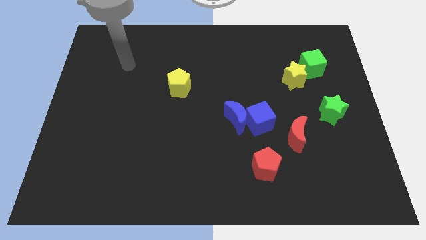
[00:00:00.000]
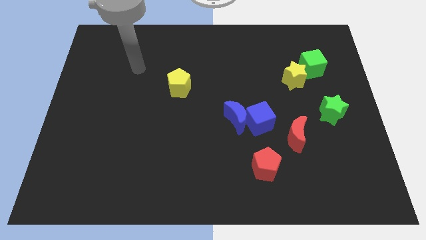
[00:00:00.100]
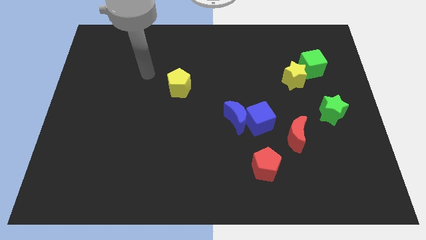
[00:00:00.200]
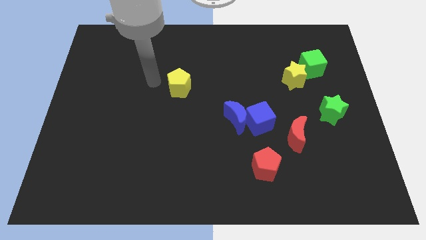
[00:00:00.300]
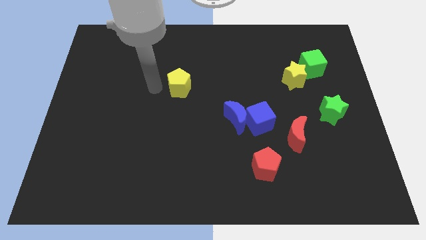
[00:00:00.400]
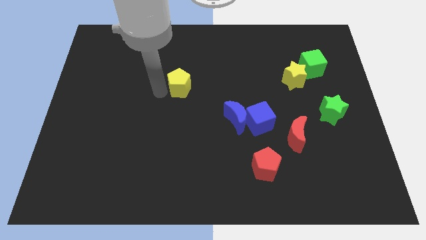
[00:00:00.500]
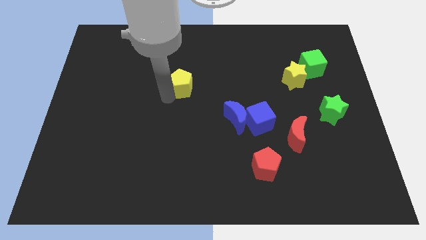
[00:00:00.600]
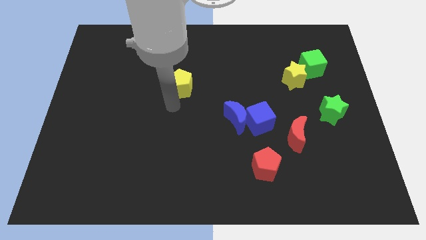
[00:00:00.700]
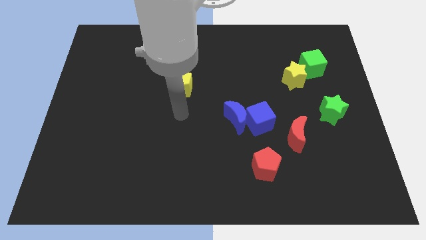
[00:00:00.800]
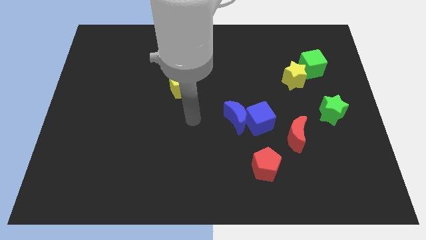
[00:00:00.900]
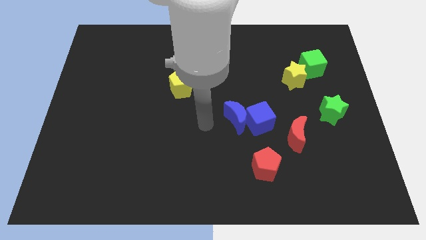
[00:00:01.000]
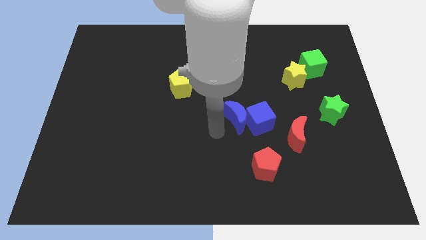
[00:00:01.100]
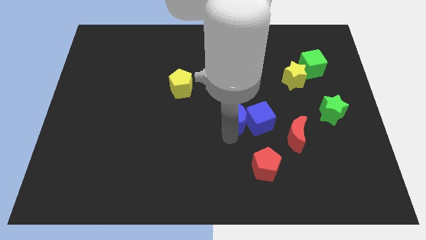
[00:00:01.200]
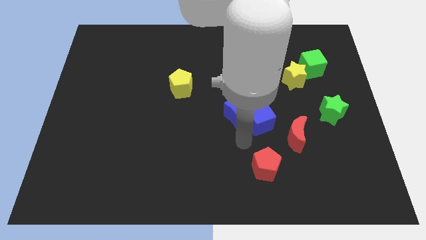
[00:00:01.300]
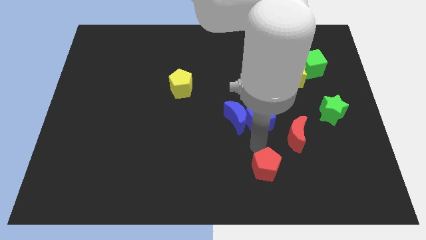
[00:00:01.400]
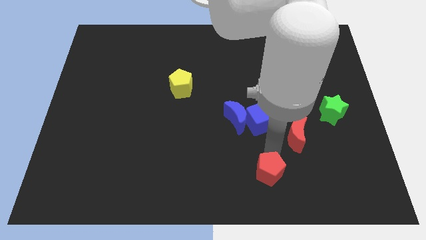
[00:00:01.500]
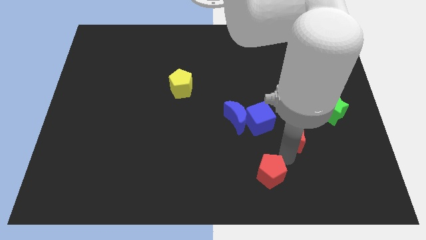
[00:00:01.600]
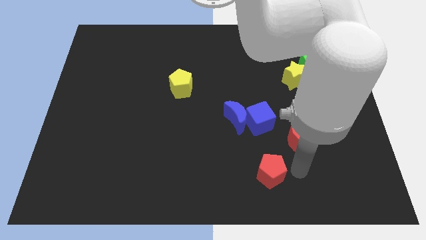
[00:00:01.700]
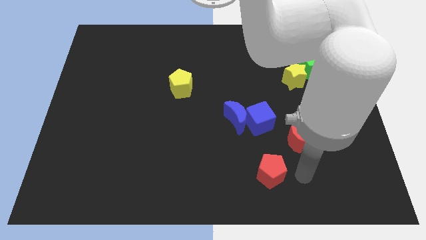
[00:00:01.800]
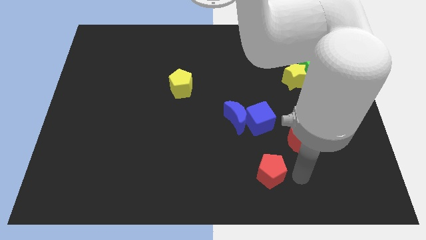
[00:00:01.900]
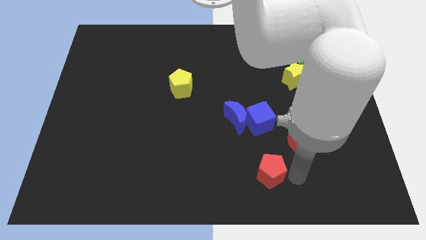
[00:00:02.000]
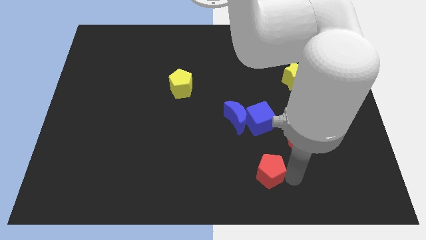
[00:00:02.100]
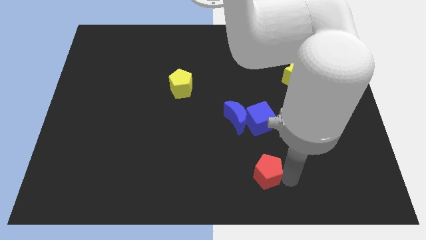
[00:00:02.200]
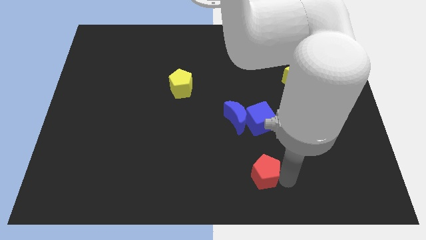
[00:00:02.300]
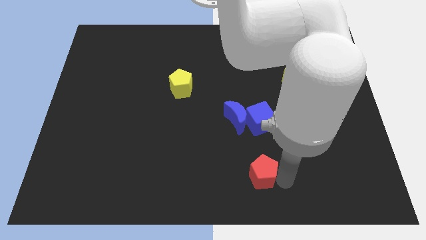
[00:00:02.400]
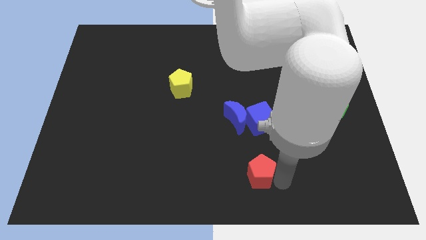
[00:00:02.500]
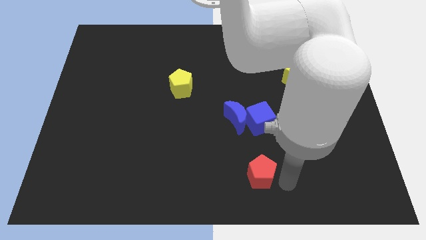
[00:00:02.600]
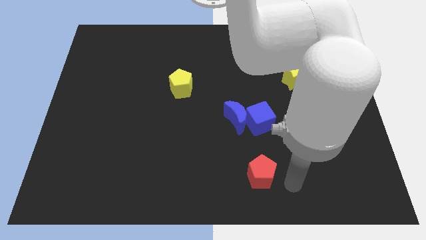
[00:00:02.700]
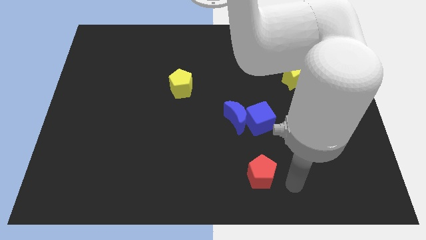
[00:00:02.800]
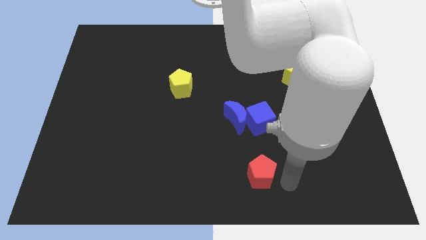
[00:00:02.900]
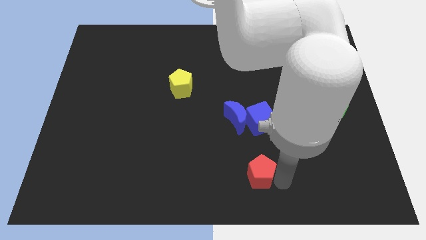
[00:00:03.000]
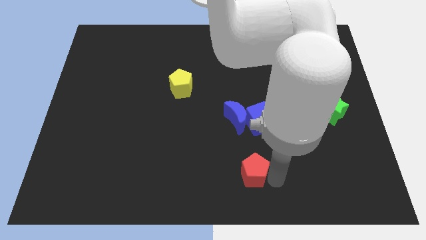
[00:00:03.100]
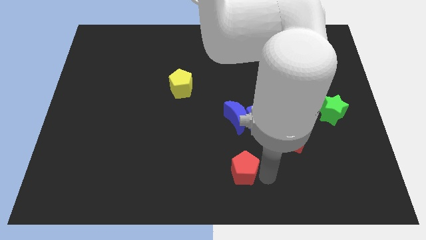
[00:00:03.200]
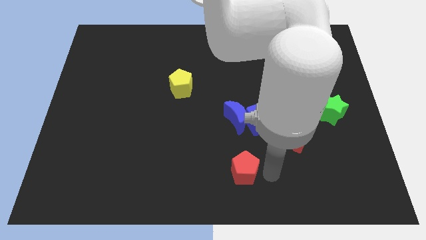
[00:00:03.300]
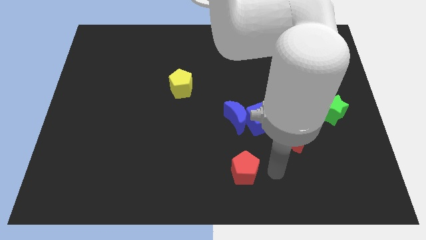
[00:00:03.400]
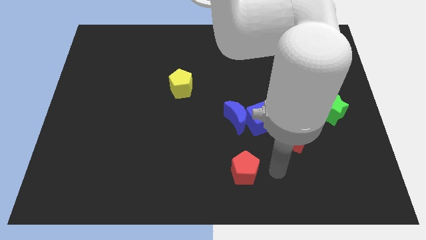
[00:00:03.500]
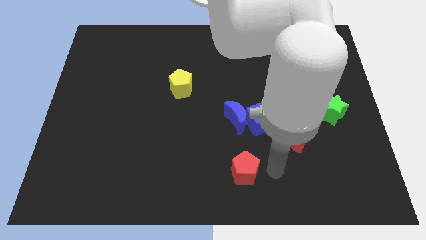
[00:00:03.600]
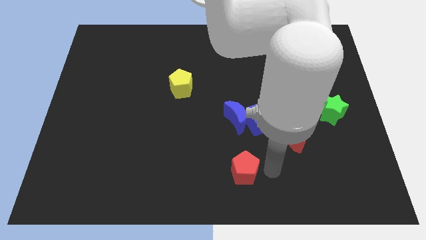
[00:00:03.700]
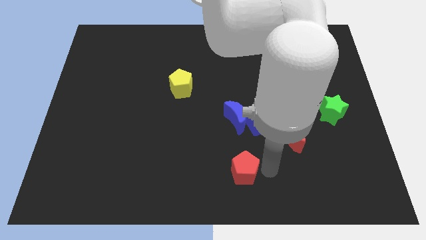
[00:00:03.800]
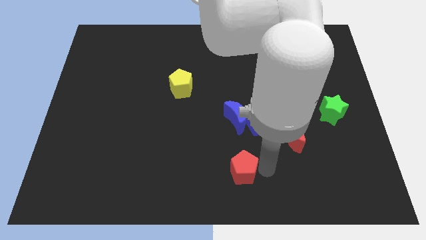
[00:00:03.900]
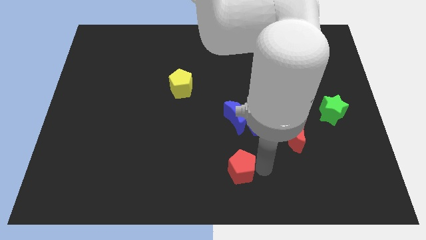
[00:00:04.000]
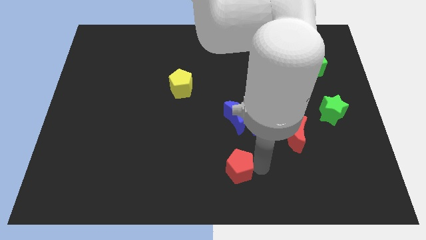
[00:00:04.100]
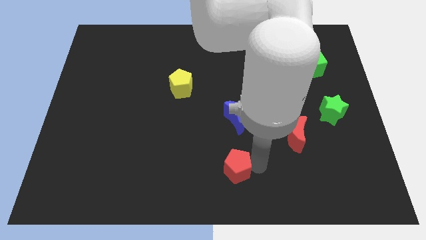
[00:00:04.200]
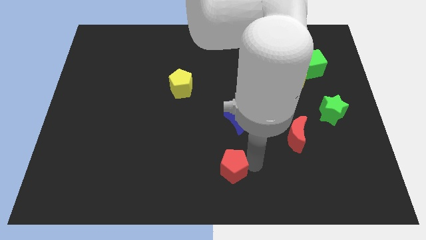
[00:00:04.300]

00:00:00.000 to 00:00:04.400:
move the red pentagon a bit left

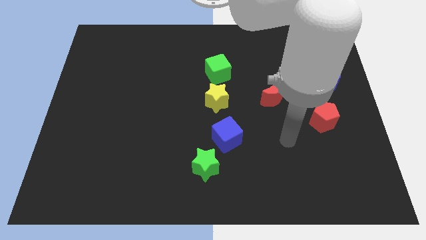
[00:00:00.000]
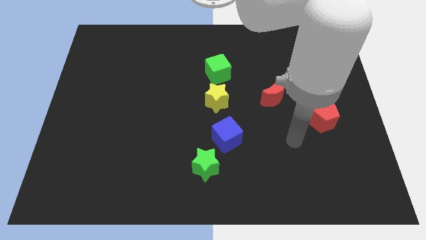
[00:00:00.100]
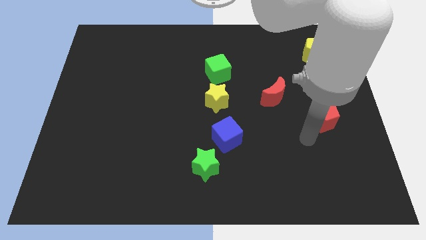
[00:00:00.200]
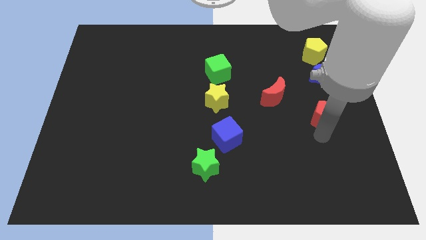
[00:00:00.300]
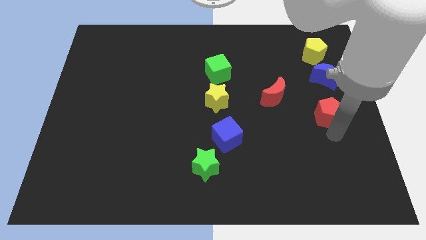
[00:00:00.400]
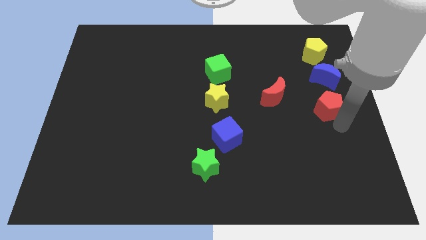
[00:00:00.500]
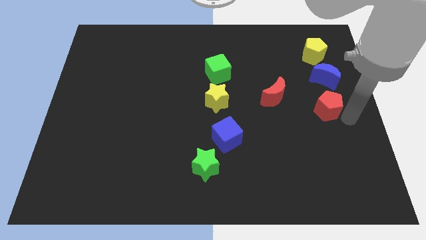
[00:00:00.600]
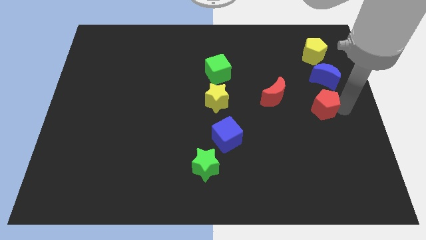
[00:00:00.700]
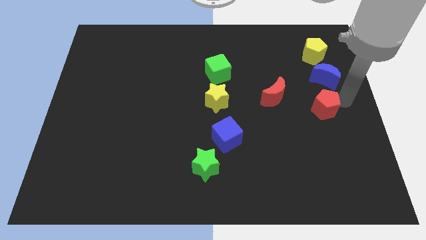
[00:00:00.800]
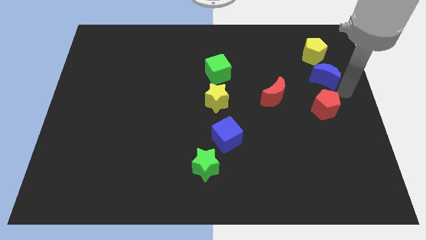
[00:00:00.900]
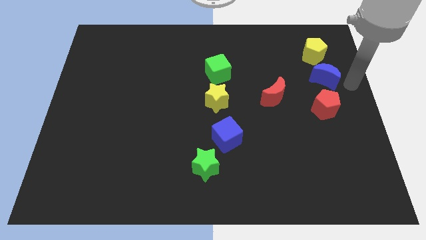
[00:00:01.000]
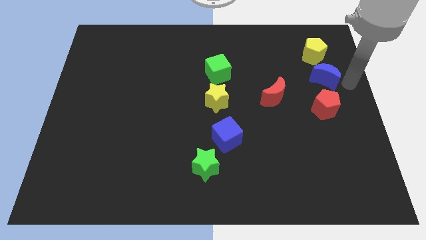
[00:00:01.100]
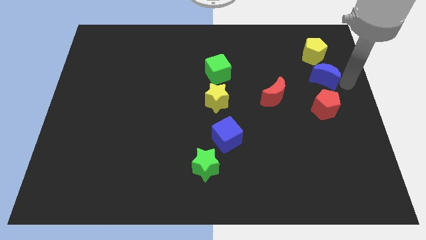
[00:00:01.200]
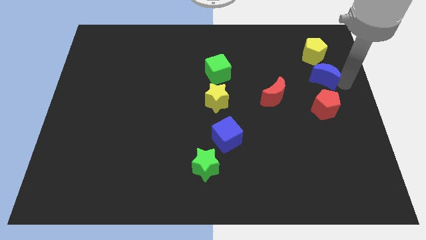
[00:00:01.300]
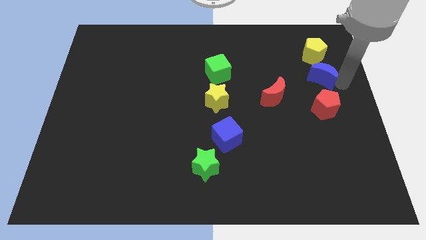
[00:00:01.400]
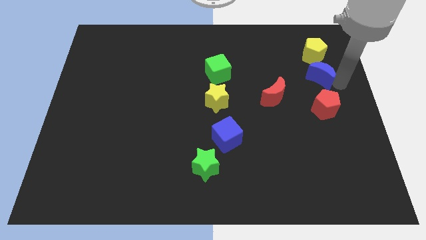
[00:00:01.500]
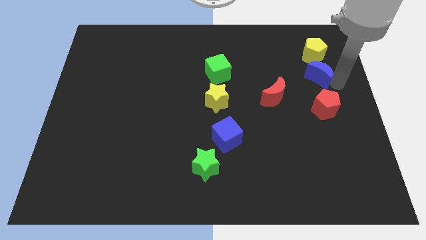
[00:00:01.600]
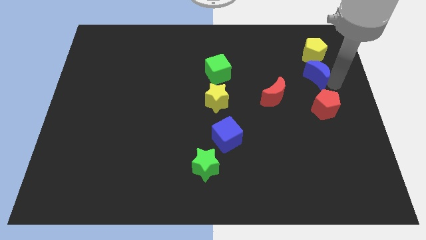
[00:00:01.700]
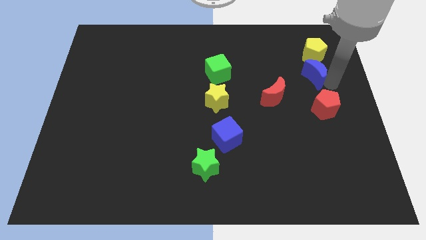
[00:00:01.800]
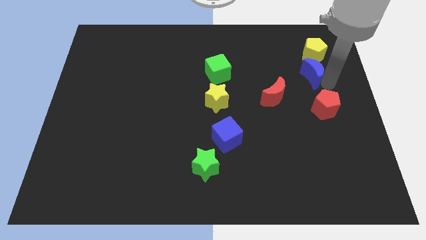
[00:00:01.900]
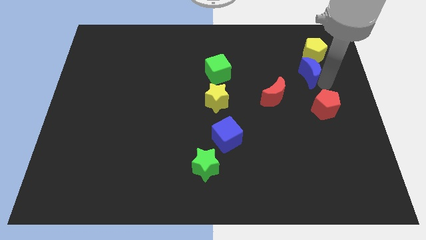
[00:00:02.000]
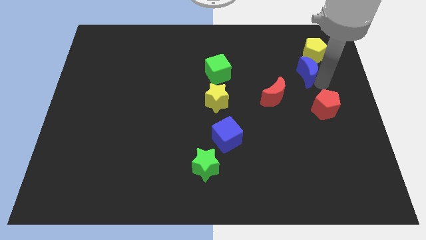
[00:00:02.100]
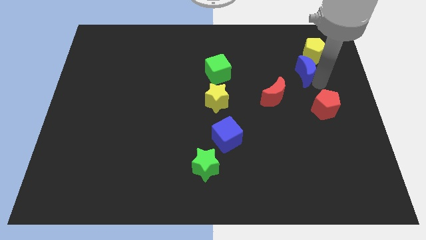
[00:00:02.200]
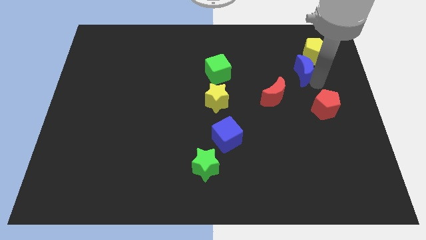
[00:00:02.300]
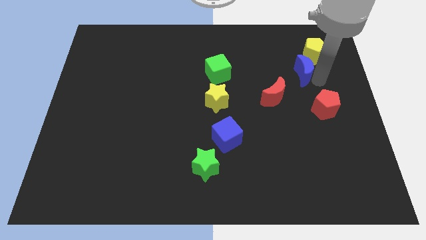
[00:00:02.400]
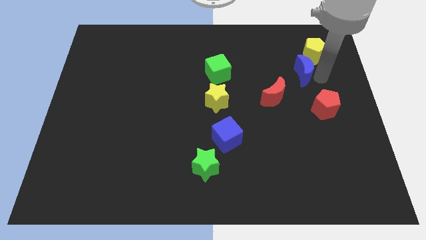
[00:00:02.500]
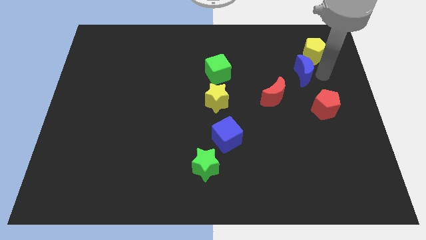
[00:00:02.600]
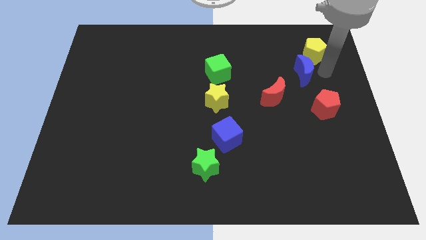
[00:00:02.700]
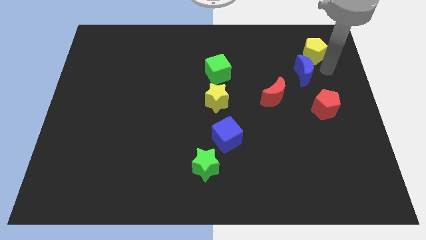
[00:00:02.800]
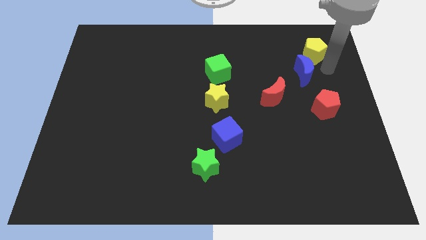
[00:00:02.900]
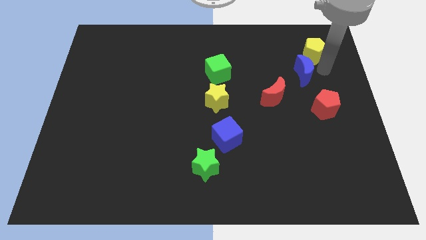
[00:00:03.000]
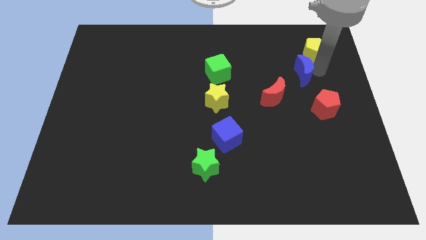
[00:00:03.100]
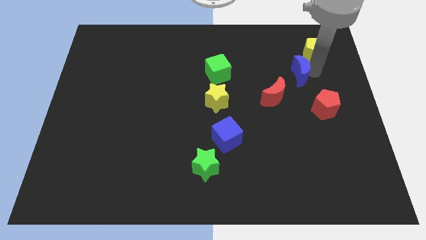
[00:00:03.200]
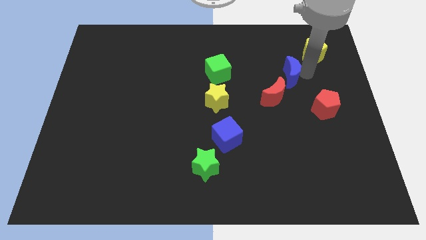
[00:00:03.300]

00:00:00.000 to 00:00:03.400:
slide the blue moon a little bit to the left
